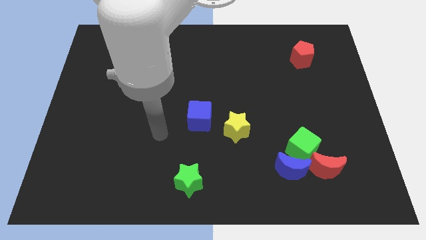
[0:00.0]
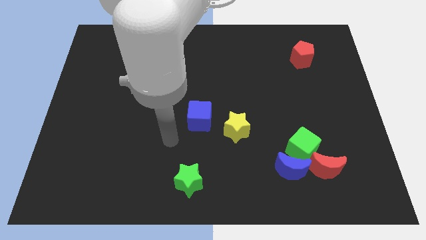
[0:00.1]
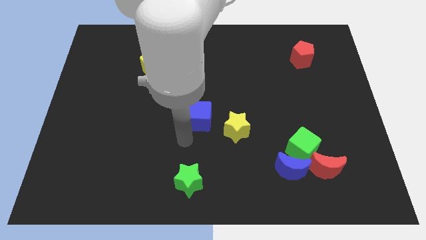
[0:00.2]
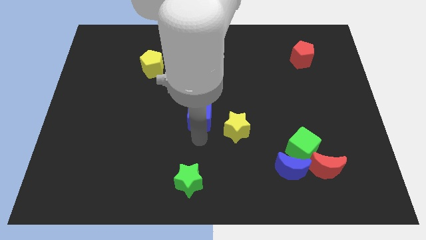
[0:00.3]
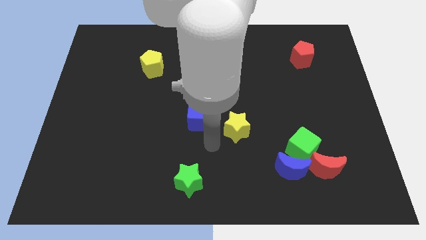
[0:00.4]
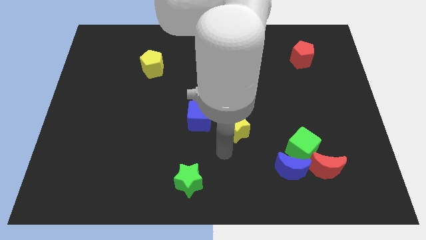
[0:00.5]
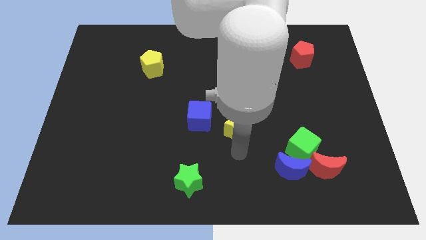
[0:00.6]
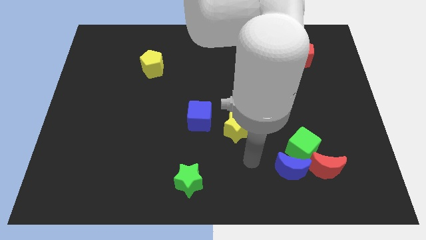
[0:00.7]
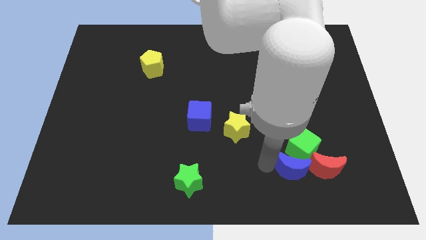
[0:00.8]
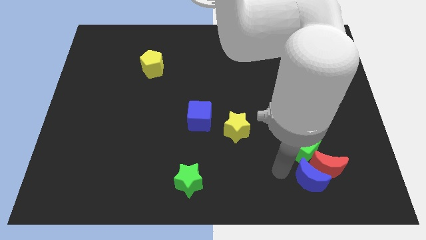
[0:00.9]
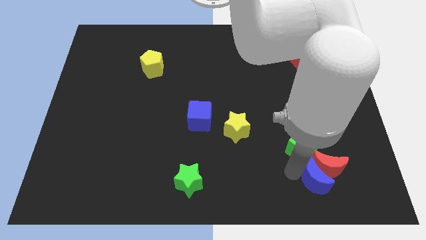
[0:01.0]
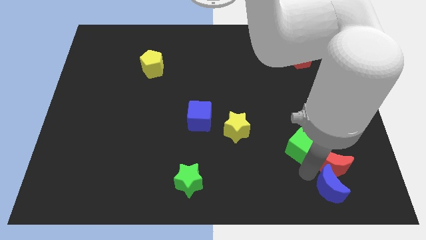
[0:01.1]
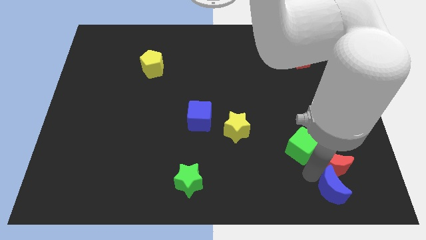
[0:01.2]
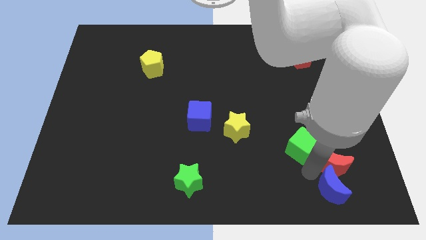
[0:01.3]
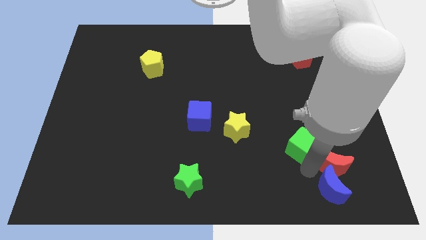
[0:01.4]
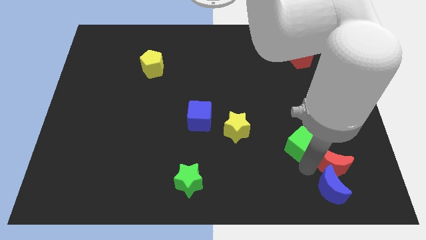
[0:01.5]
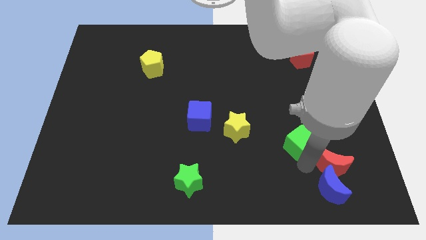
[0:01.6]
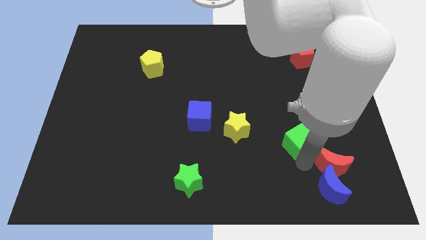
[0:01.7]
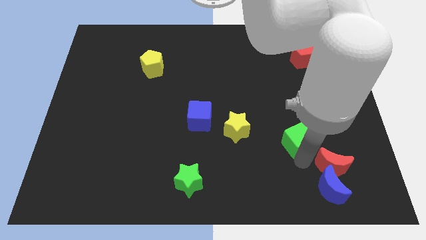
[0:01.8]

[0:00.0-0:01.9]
pull the green cube apart from the blue moon and red moon

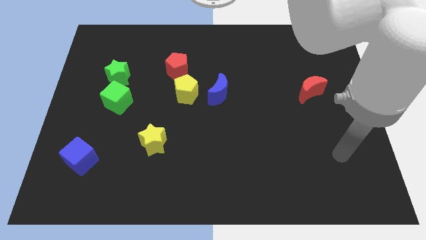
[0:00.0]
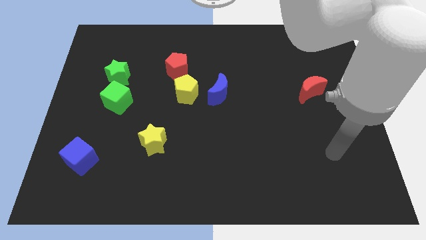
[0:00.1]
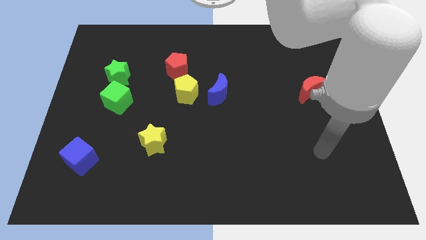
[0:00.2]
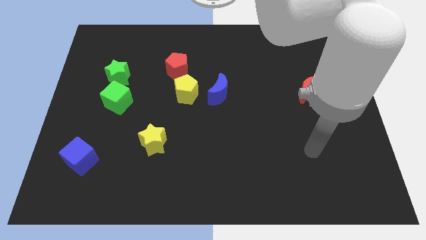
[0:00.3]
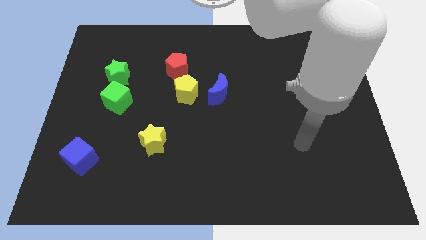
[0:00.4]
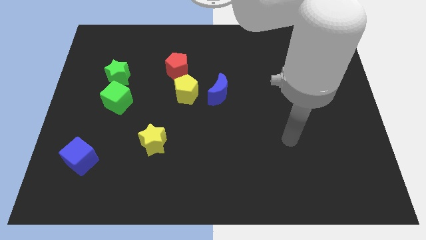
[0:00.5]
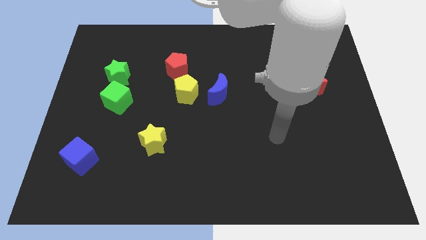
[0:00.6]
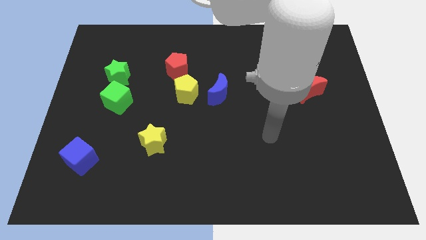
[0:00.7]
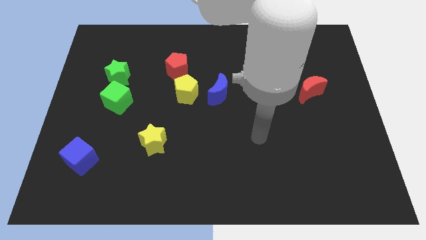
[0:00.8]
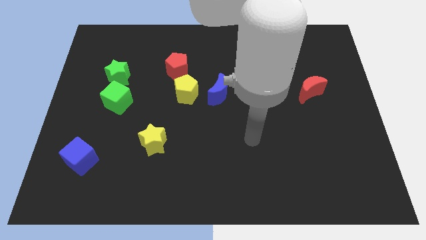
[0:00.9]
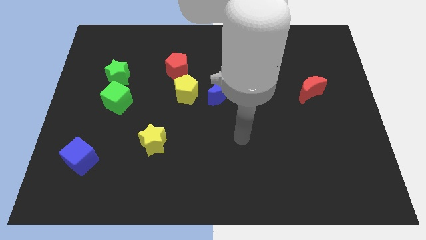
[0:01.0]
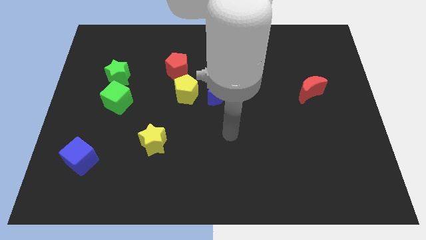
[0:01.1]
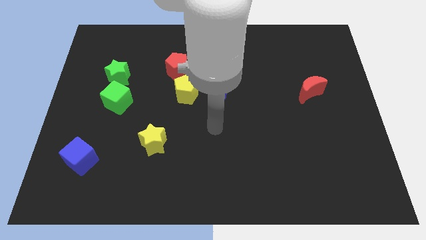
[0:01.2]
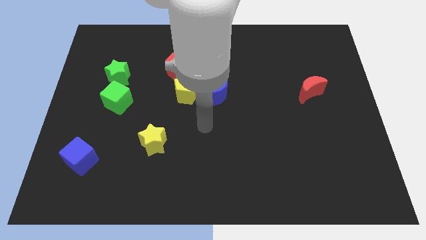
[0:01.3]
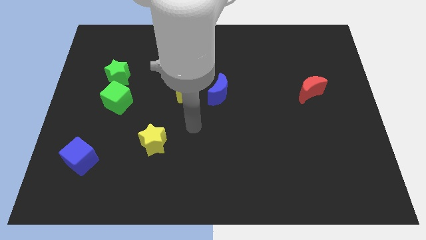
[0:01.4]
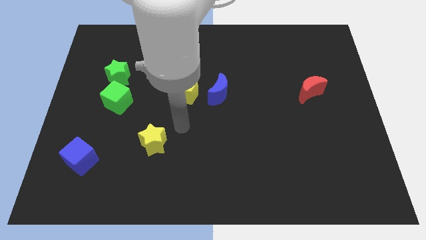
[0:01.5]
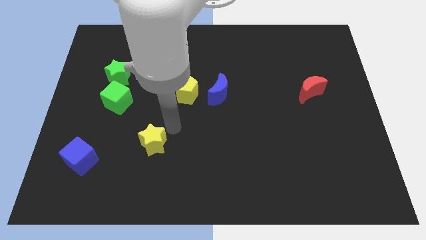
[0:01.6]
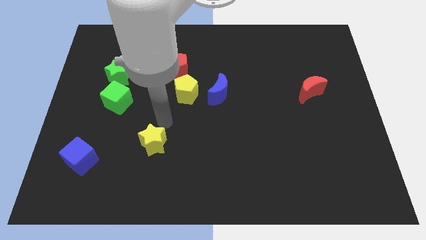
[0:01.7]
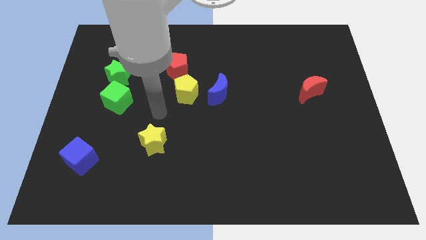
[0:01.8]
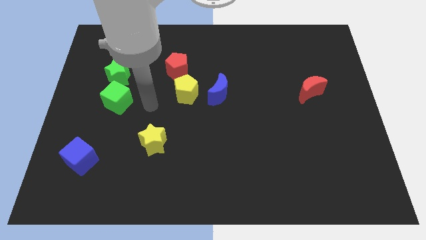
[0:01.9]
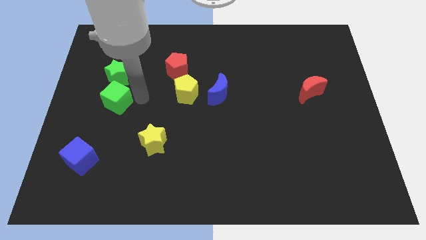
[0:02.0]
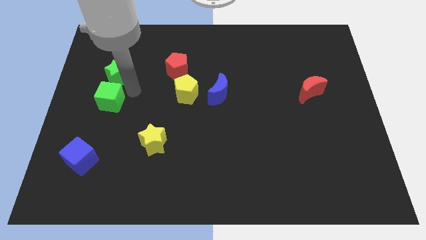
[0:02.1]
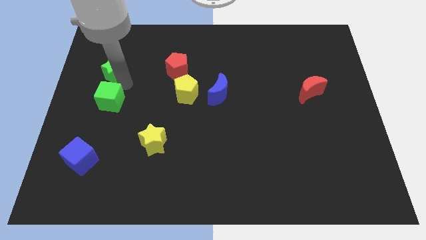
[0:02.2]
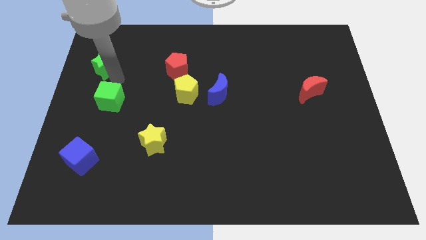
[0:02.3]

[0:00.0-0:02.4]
pull the green cube apart from the green star

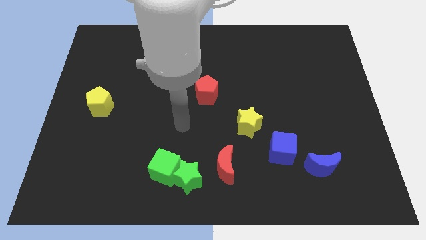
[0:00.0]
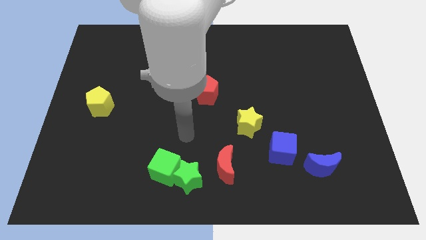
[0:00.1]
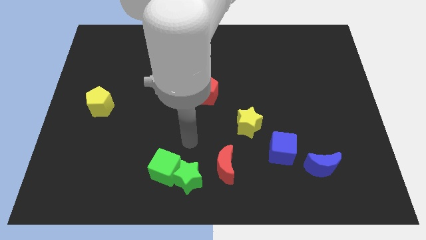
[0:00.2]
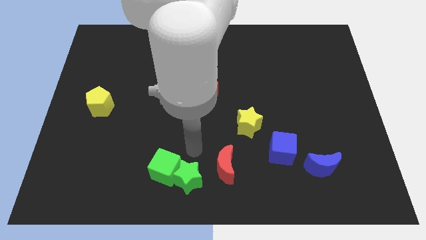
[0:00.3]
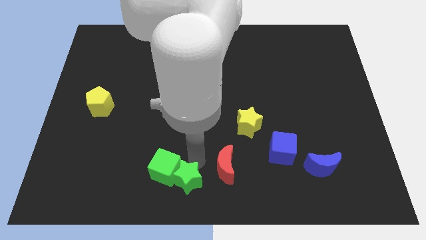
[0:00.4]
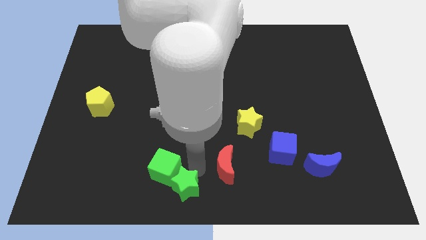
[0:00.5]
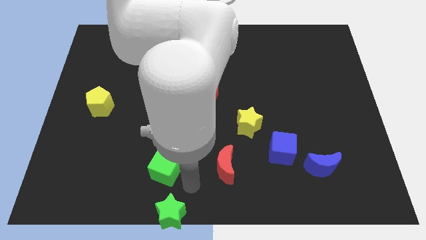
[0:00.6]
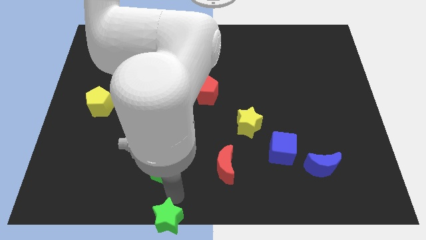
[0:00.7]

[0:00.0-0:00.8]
separate the green cube from the green star

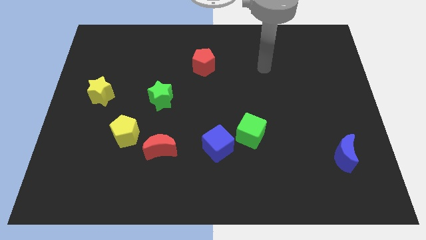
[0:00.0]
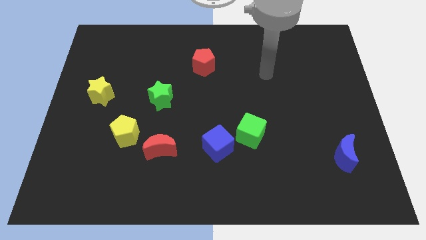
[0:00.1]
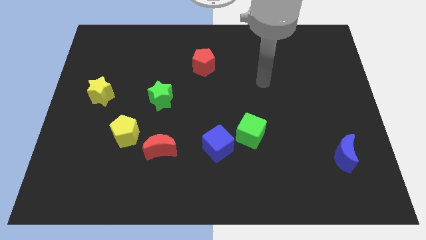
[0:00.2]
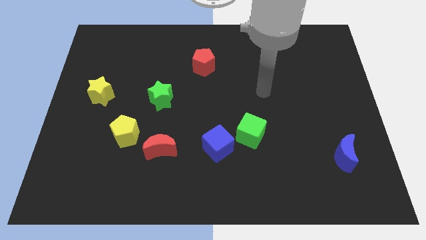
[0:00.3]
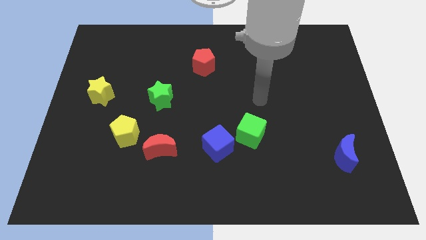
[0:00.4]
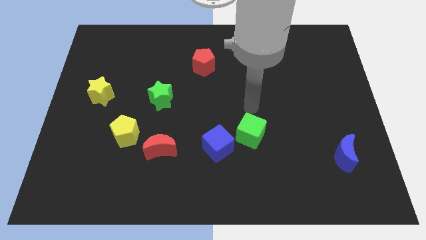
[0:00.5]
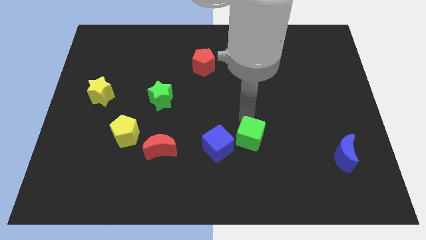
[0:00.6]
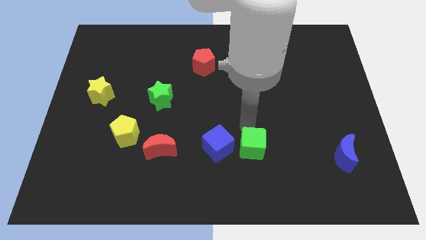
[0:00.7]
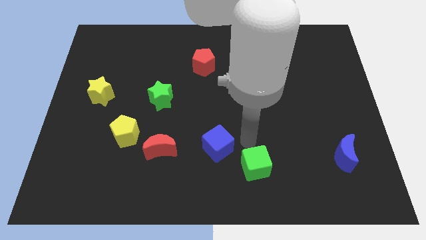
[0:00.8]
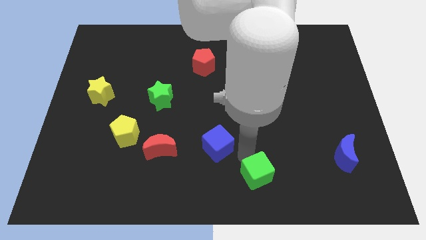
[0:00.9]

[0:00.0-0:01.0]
separate the blue cube from the green cube

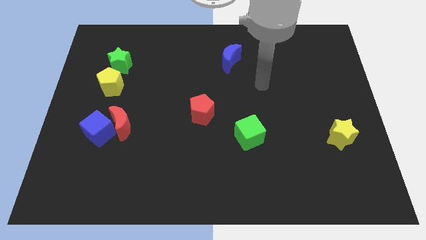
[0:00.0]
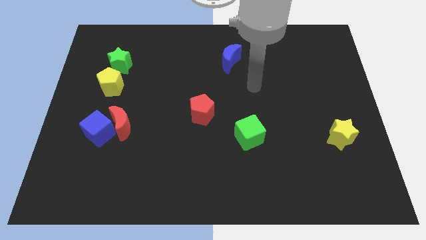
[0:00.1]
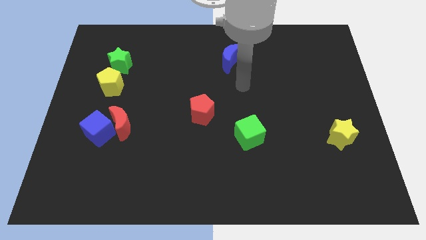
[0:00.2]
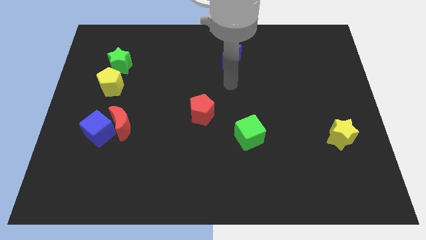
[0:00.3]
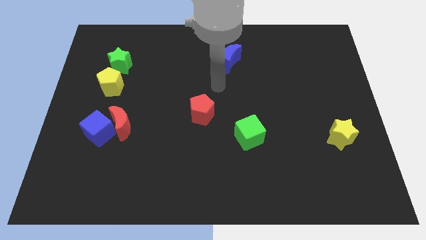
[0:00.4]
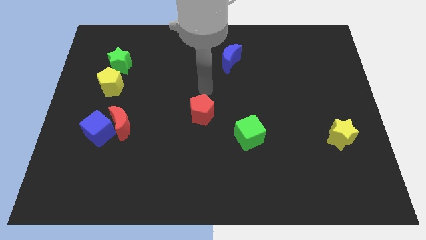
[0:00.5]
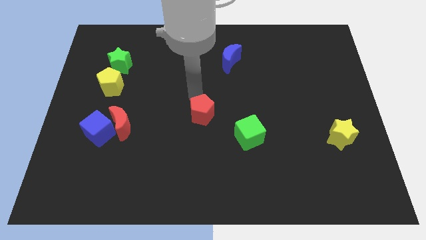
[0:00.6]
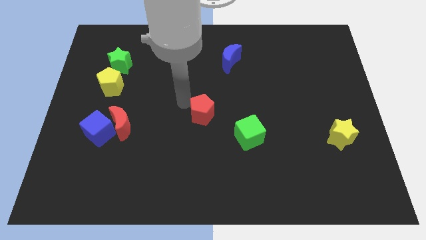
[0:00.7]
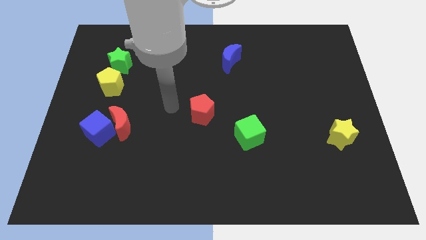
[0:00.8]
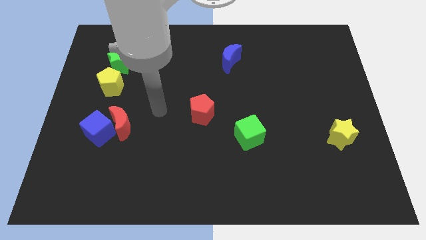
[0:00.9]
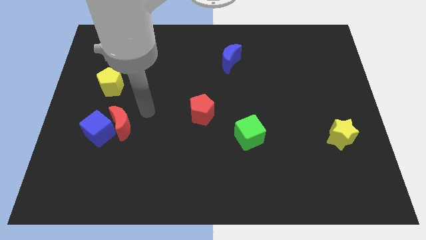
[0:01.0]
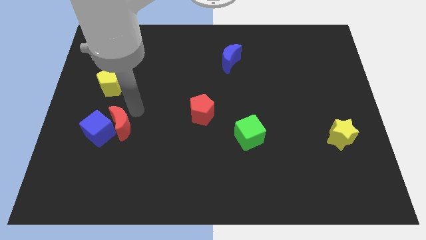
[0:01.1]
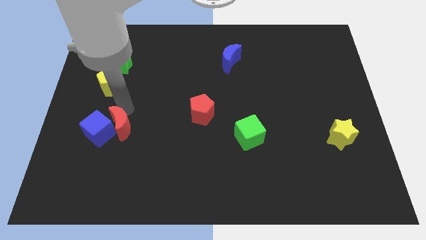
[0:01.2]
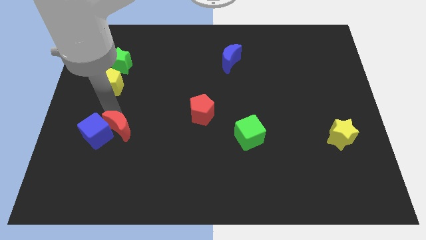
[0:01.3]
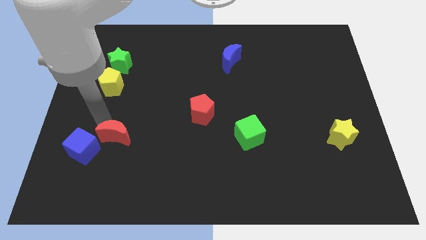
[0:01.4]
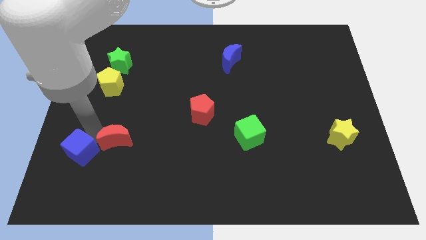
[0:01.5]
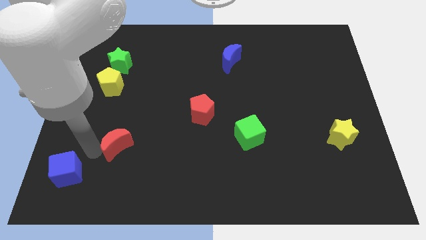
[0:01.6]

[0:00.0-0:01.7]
separate the red moon from the blue cube

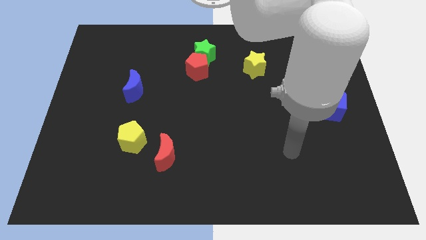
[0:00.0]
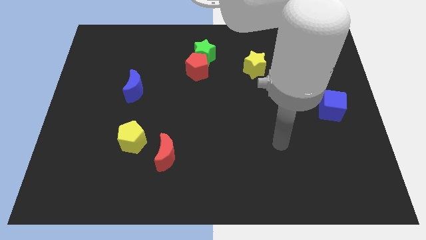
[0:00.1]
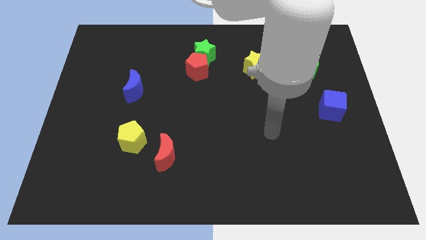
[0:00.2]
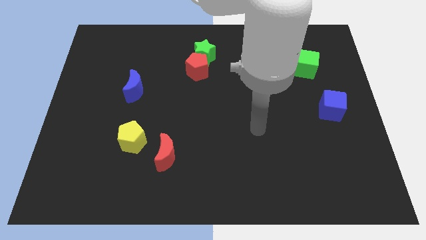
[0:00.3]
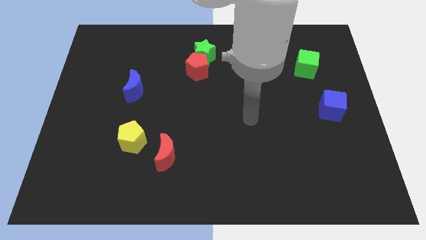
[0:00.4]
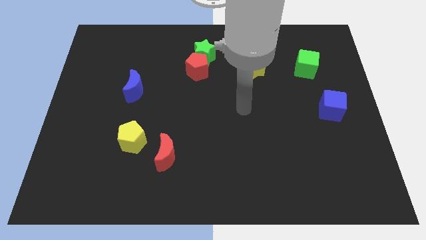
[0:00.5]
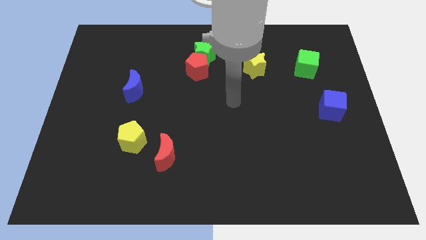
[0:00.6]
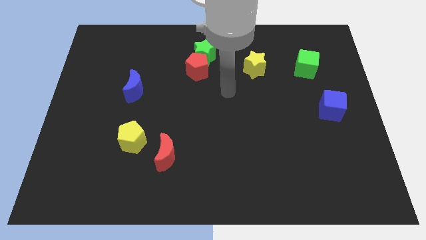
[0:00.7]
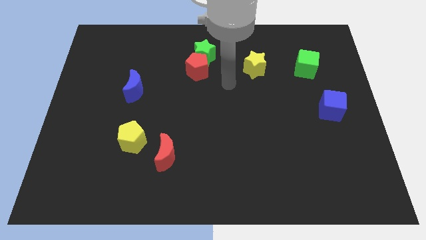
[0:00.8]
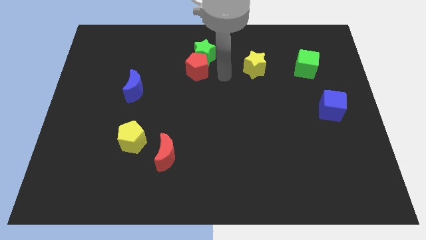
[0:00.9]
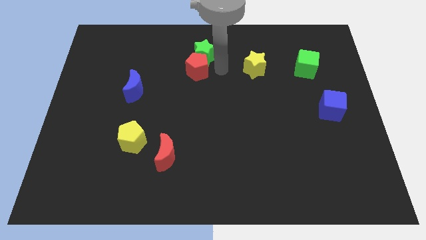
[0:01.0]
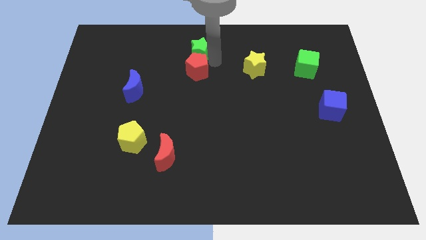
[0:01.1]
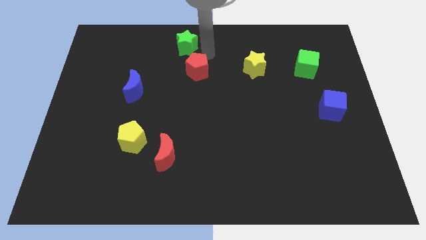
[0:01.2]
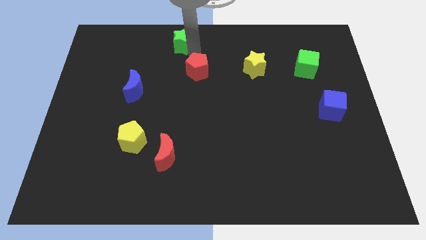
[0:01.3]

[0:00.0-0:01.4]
pull the red pentagon apart from the green star

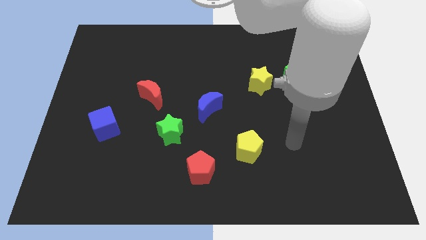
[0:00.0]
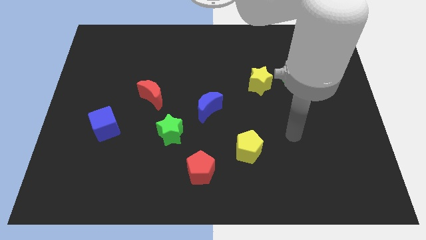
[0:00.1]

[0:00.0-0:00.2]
move the green cube away from the yellow star
